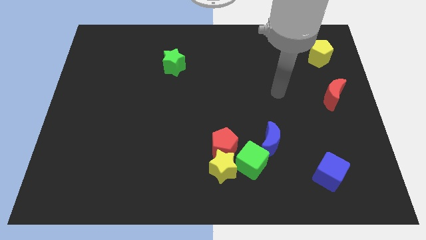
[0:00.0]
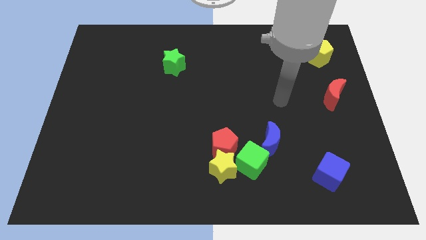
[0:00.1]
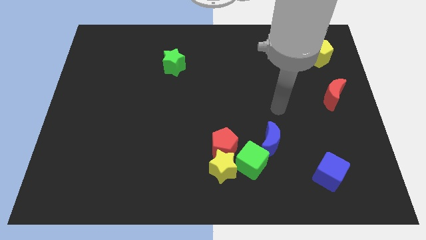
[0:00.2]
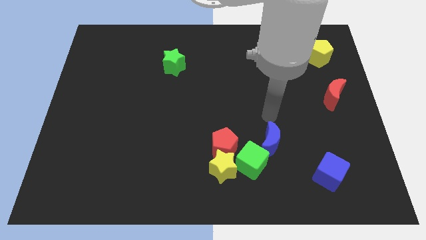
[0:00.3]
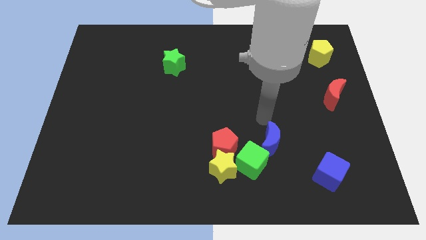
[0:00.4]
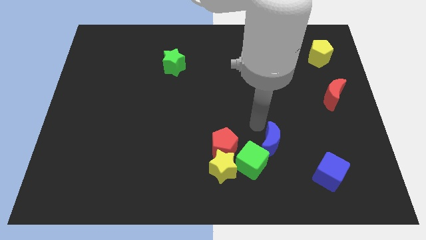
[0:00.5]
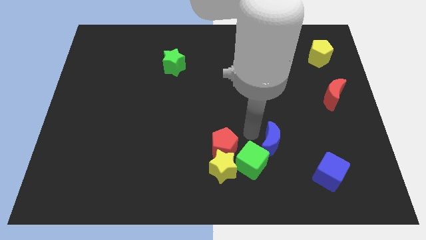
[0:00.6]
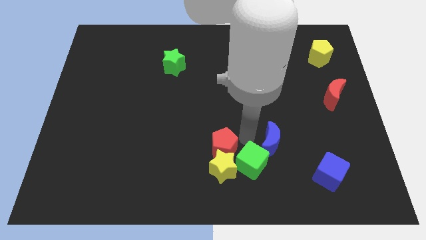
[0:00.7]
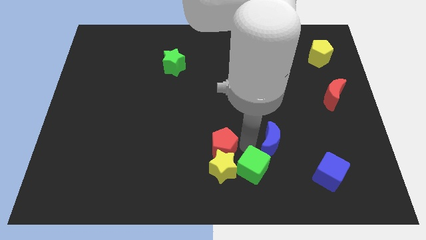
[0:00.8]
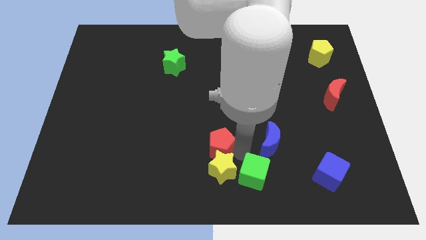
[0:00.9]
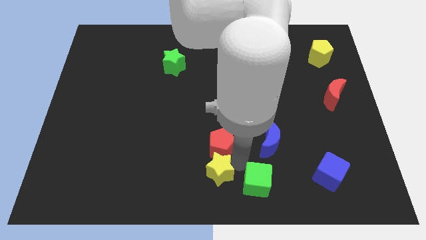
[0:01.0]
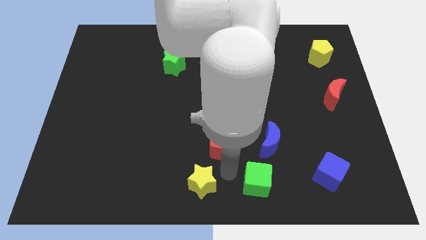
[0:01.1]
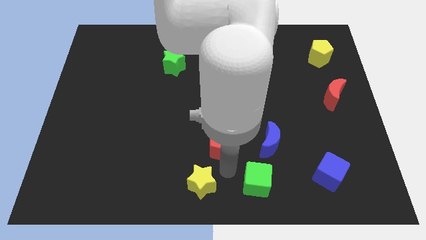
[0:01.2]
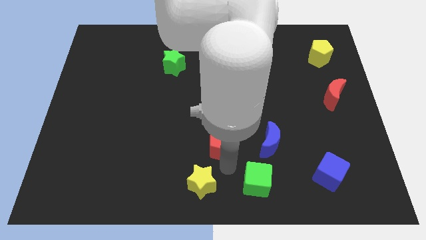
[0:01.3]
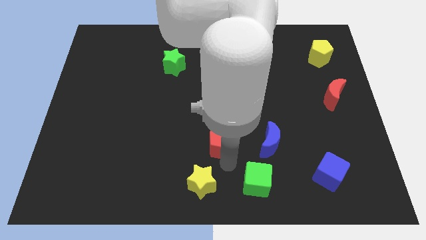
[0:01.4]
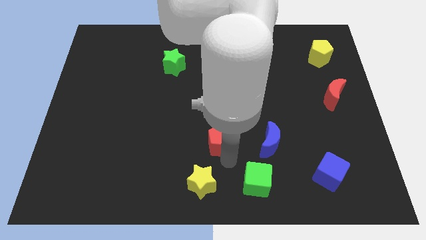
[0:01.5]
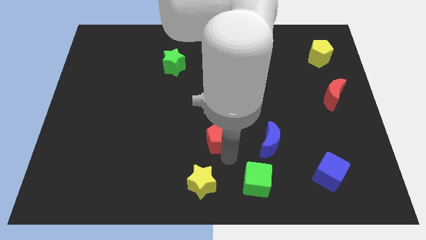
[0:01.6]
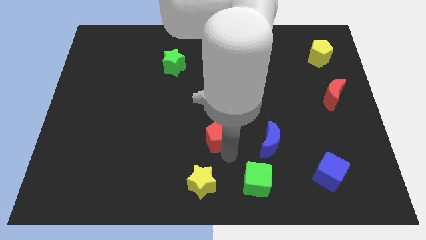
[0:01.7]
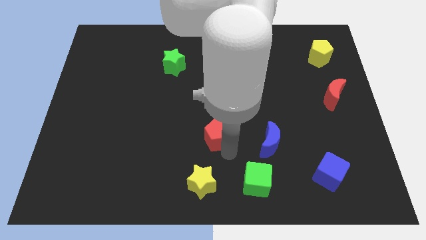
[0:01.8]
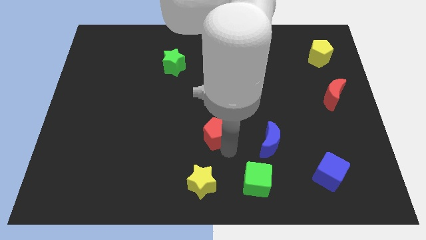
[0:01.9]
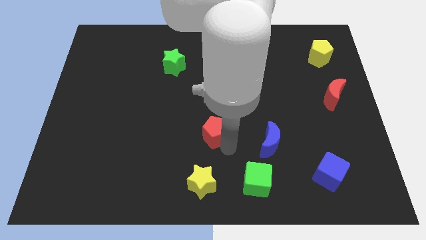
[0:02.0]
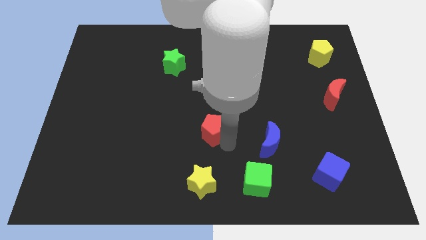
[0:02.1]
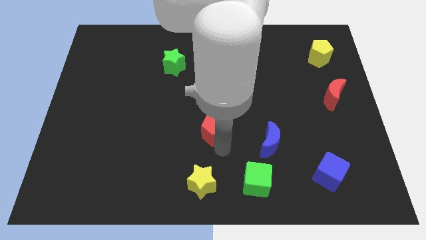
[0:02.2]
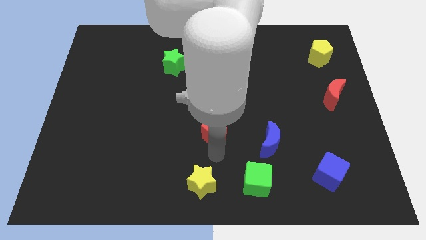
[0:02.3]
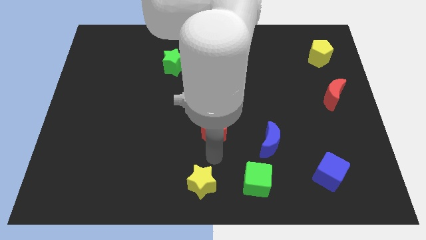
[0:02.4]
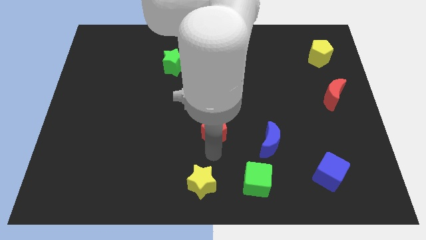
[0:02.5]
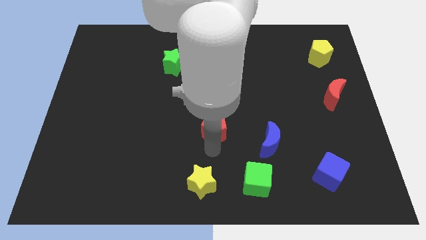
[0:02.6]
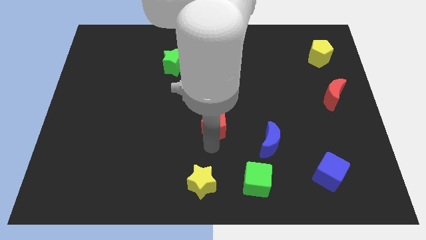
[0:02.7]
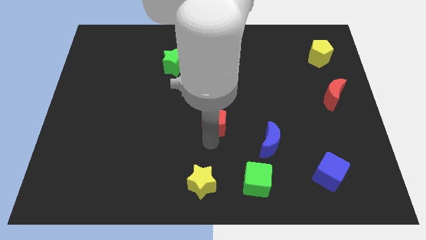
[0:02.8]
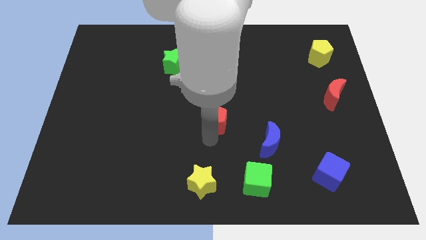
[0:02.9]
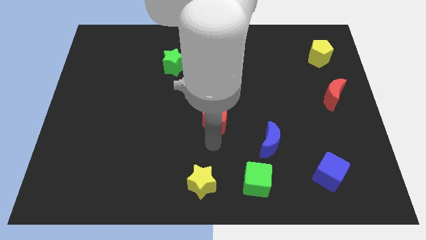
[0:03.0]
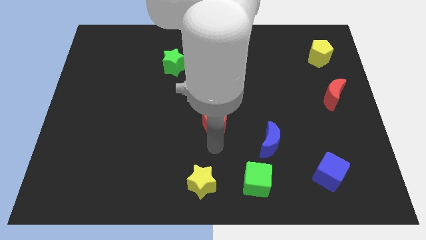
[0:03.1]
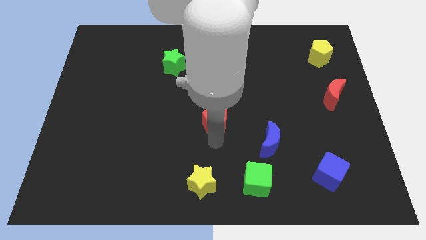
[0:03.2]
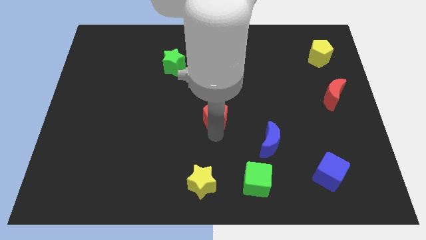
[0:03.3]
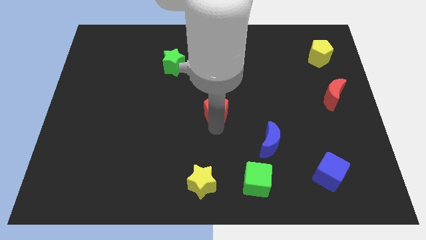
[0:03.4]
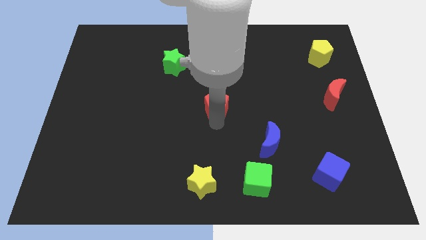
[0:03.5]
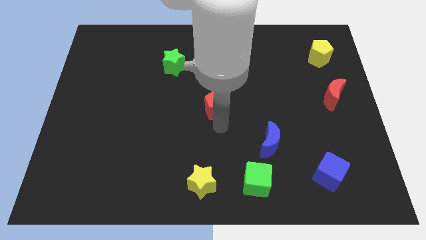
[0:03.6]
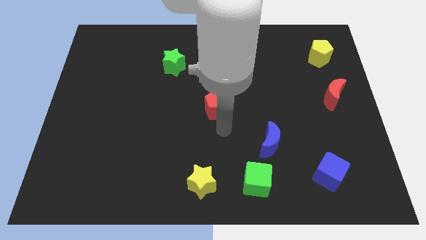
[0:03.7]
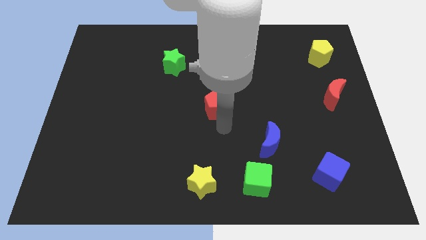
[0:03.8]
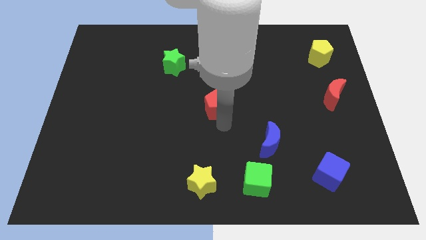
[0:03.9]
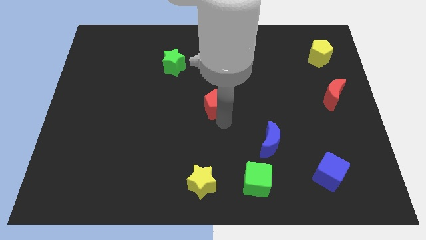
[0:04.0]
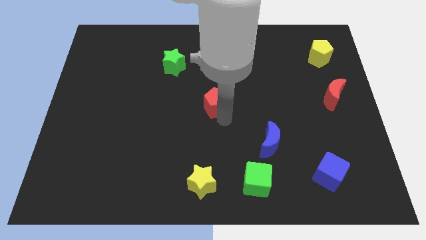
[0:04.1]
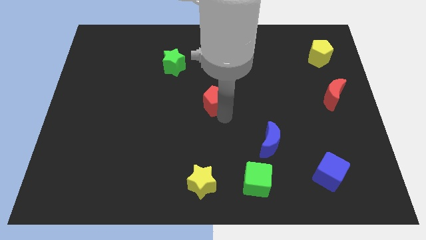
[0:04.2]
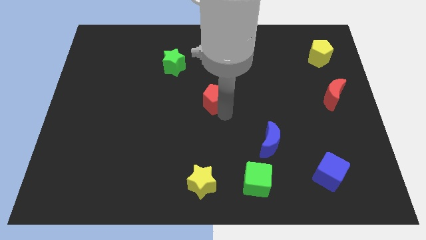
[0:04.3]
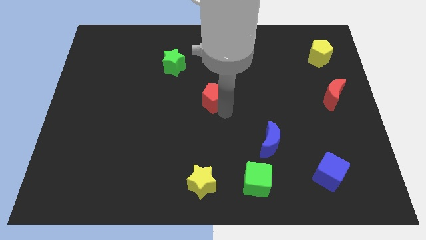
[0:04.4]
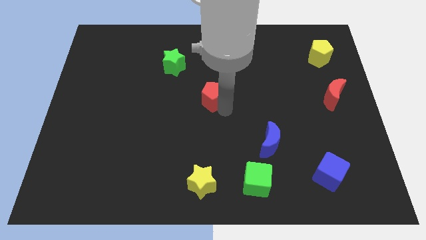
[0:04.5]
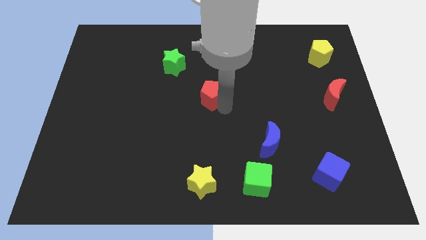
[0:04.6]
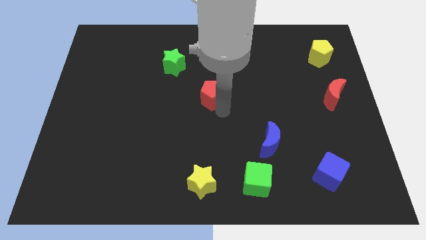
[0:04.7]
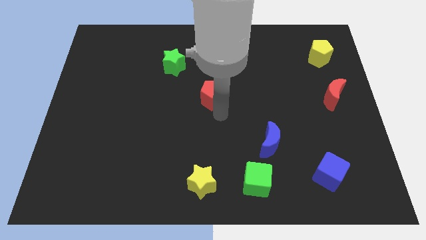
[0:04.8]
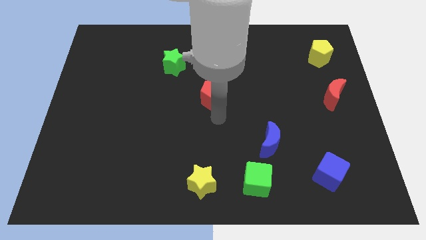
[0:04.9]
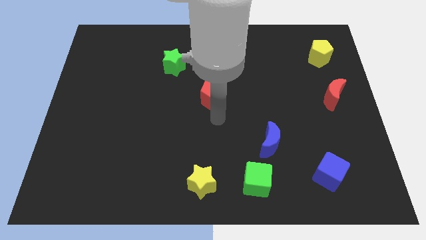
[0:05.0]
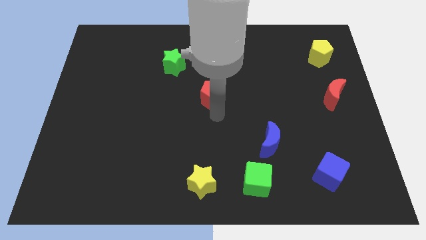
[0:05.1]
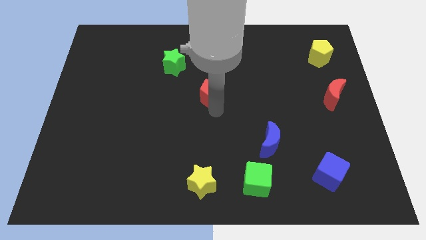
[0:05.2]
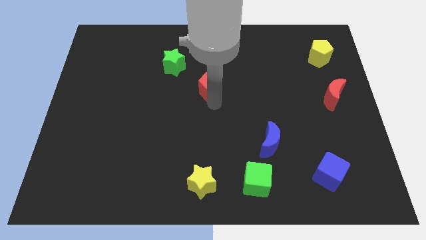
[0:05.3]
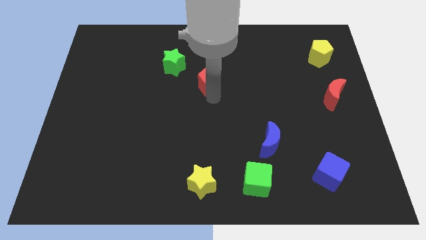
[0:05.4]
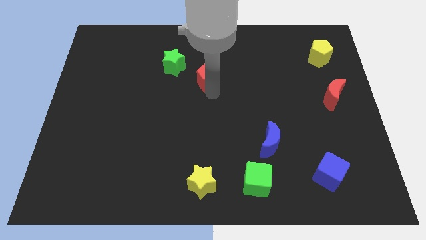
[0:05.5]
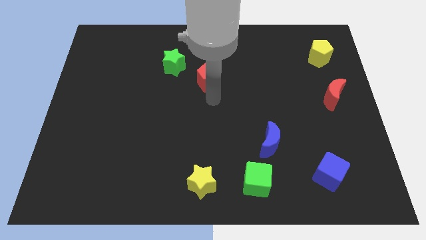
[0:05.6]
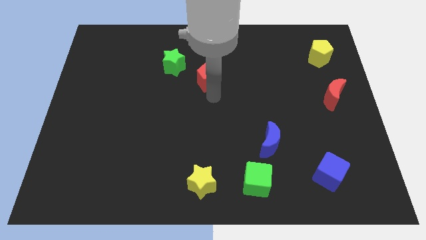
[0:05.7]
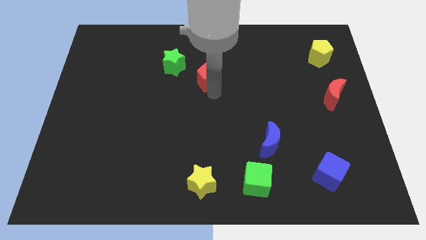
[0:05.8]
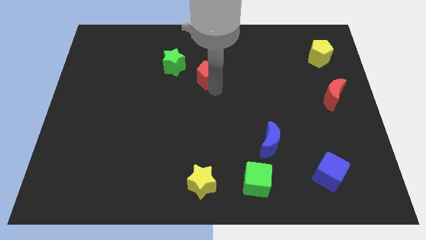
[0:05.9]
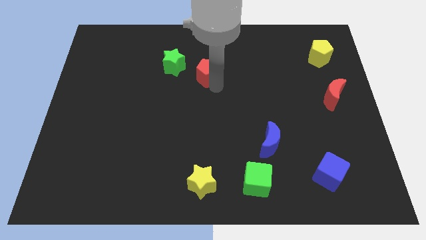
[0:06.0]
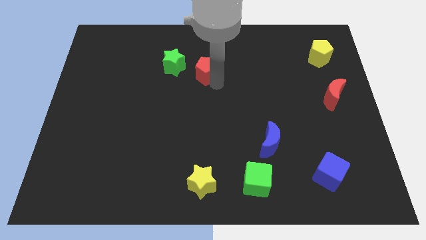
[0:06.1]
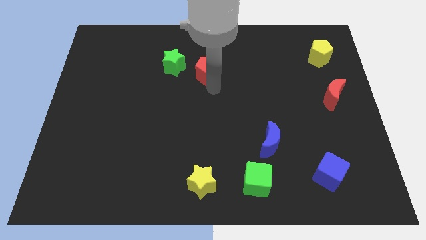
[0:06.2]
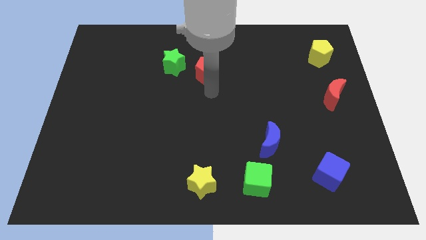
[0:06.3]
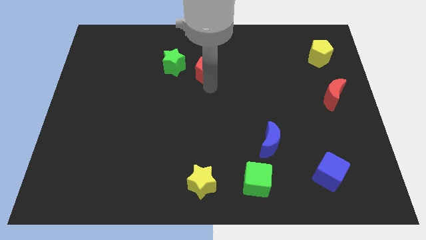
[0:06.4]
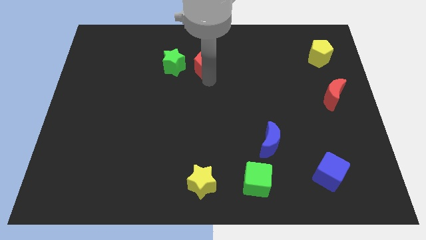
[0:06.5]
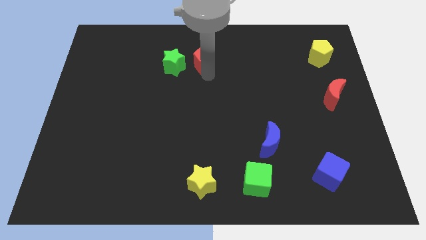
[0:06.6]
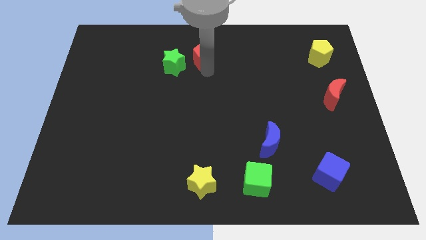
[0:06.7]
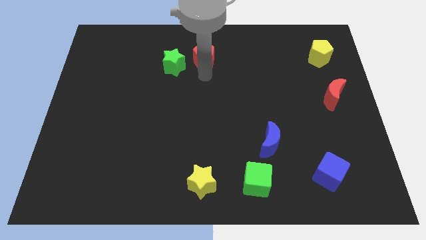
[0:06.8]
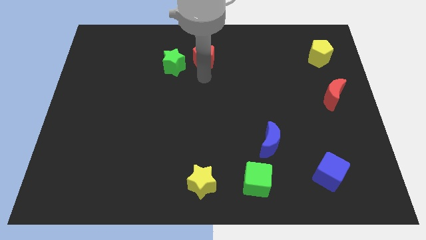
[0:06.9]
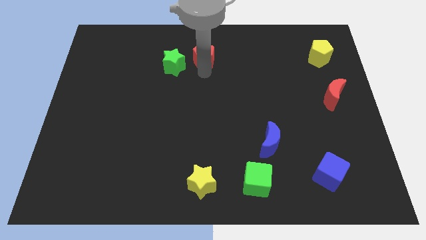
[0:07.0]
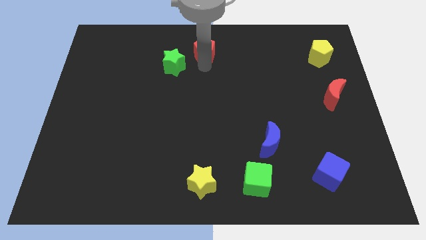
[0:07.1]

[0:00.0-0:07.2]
put the red pentagon to the top
